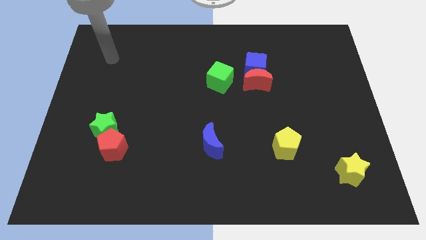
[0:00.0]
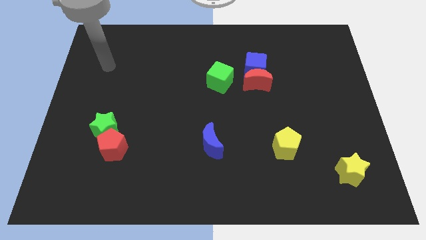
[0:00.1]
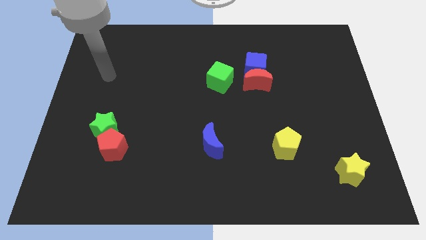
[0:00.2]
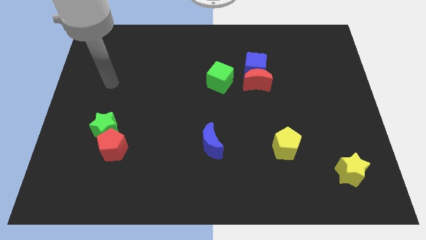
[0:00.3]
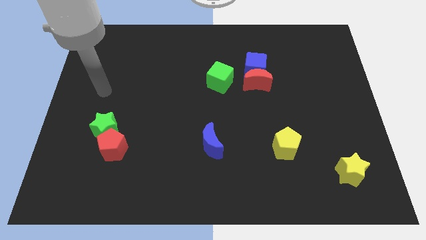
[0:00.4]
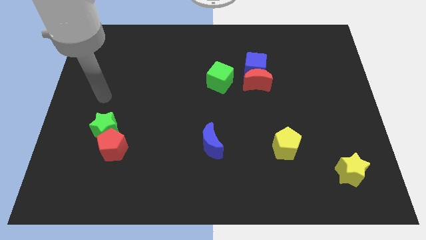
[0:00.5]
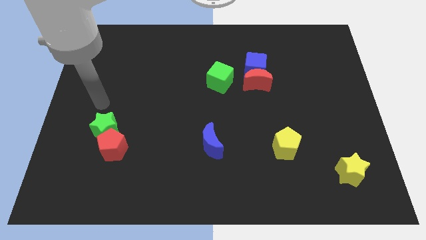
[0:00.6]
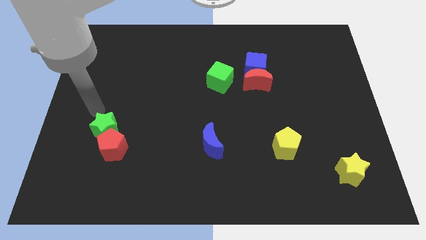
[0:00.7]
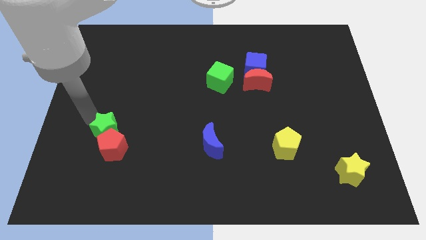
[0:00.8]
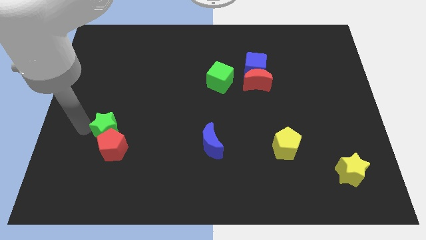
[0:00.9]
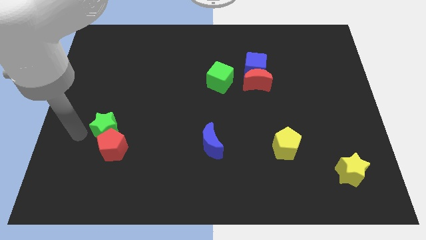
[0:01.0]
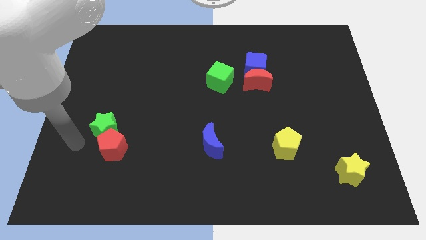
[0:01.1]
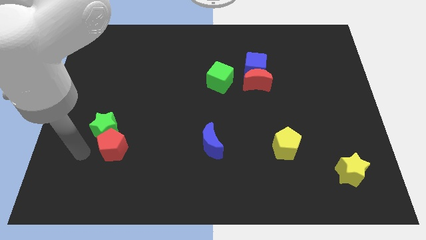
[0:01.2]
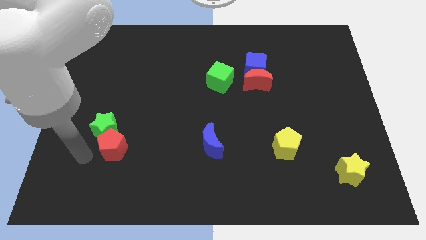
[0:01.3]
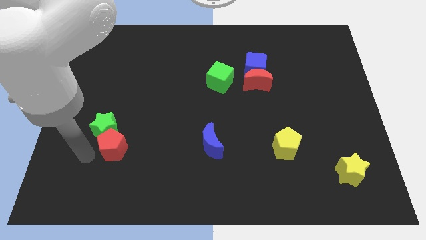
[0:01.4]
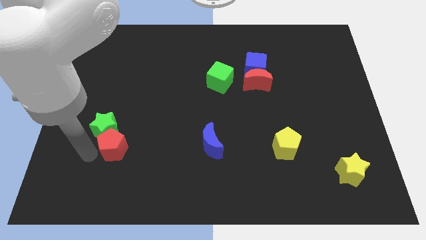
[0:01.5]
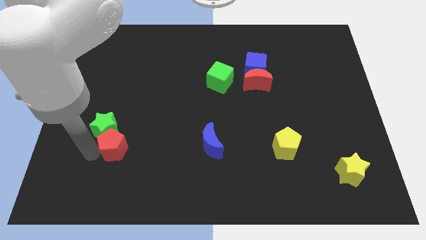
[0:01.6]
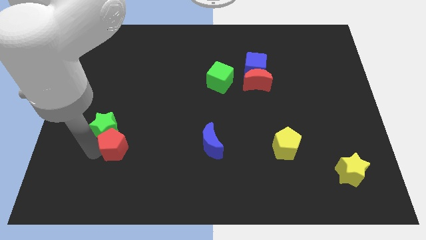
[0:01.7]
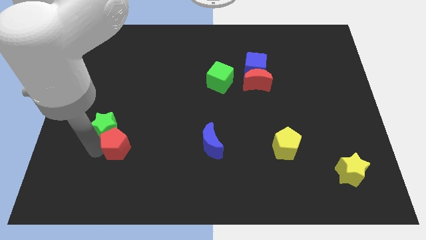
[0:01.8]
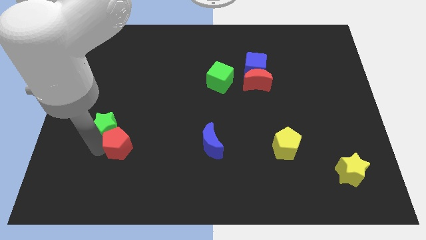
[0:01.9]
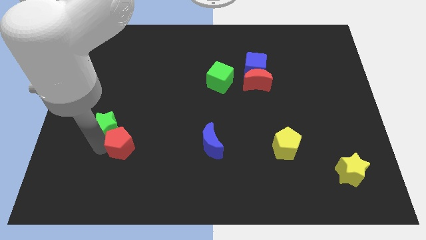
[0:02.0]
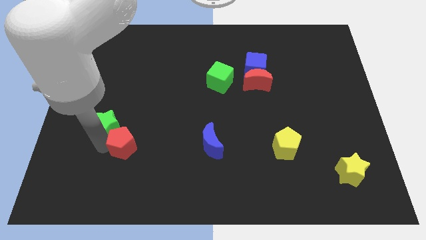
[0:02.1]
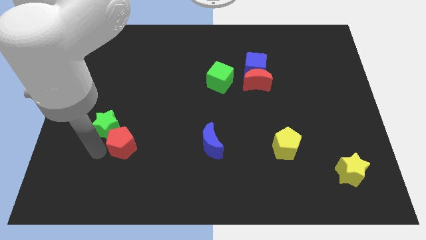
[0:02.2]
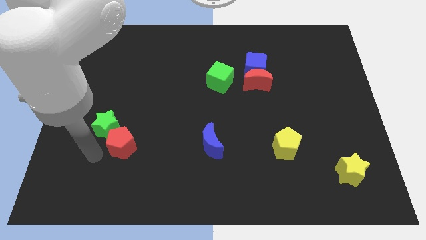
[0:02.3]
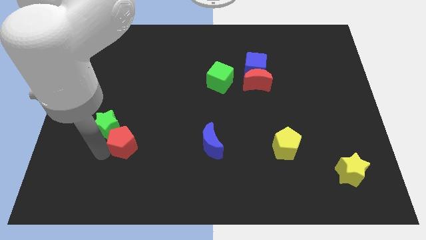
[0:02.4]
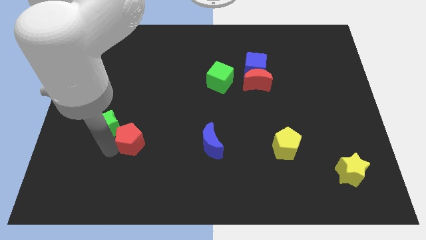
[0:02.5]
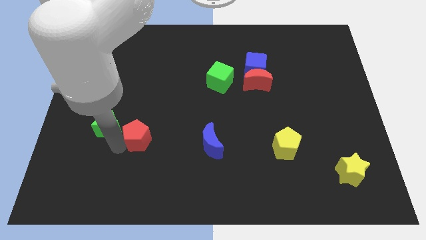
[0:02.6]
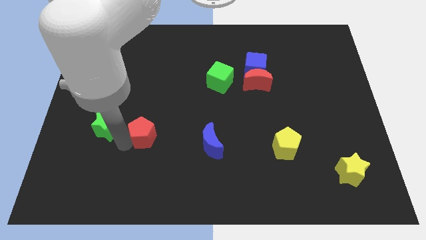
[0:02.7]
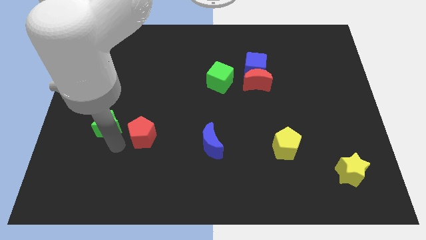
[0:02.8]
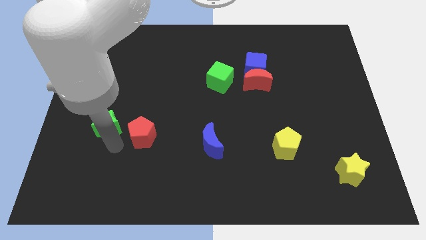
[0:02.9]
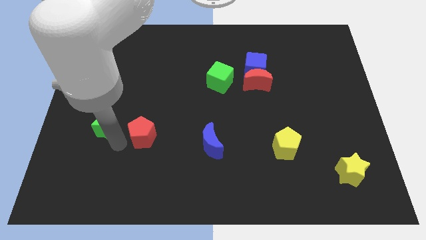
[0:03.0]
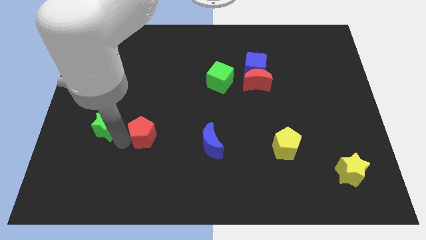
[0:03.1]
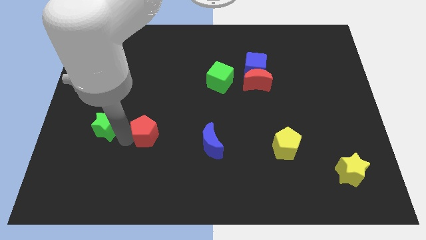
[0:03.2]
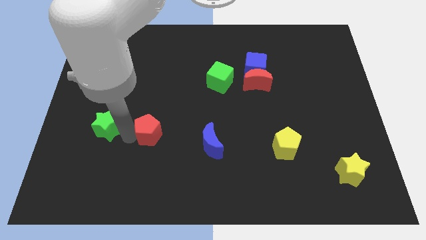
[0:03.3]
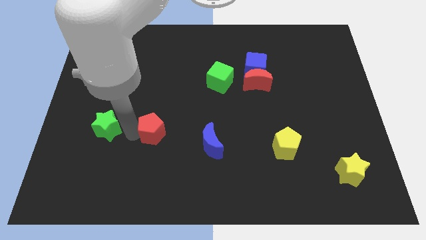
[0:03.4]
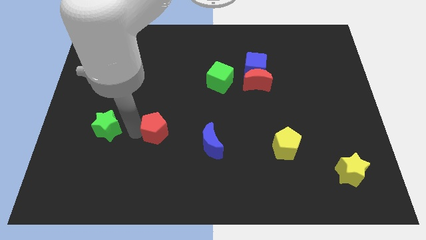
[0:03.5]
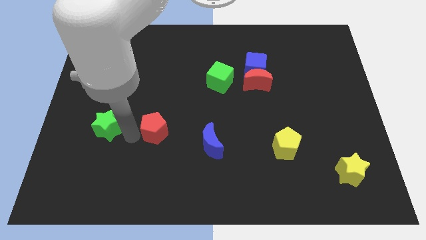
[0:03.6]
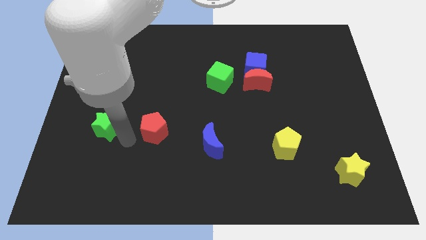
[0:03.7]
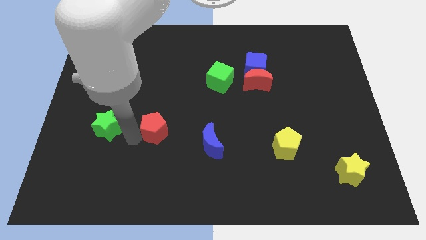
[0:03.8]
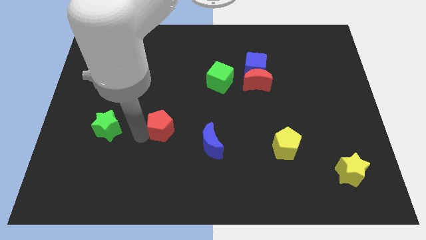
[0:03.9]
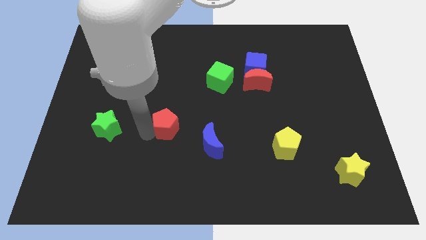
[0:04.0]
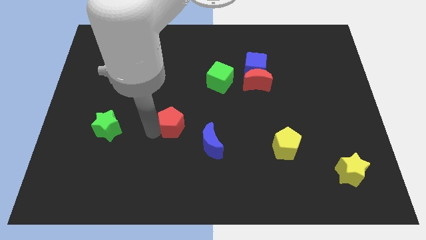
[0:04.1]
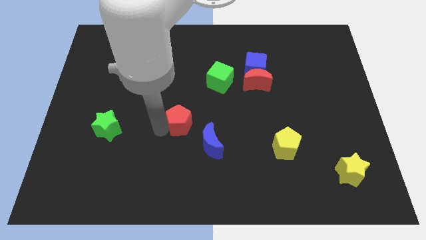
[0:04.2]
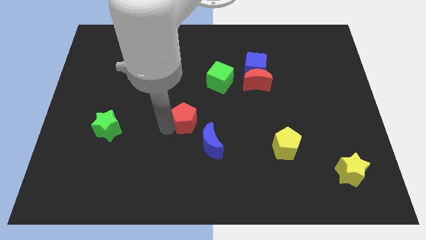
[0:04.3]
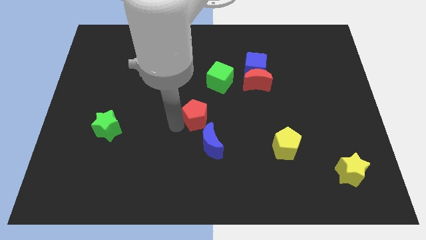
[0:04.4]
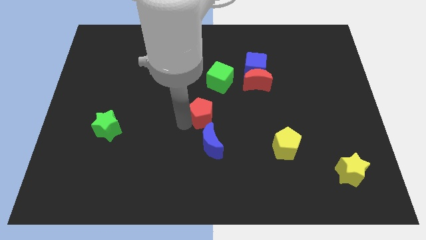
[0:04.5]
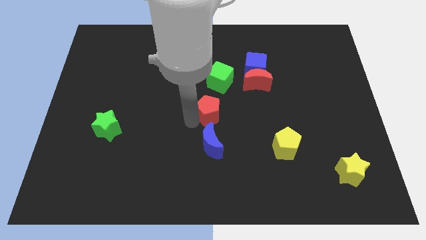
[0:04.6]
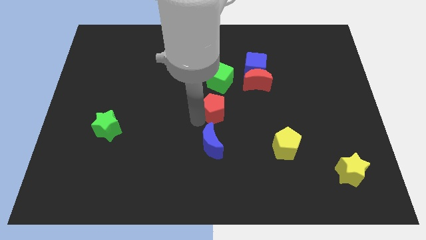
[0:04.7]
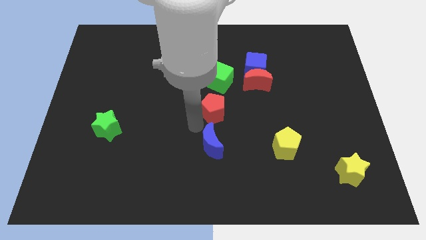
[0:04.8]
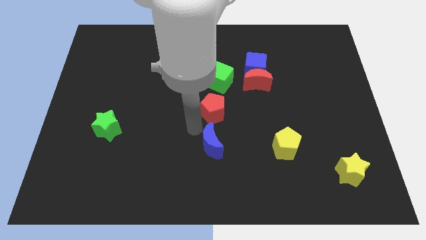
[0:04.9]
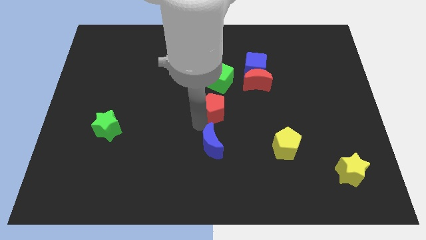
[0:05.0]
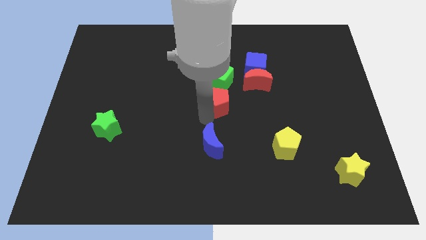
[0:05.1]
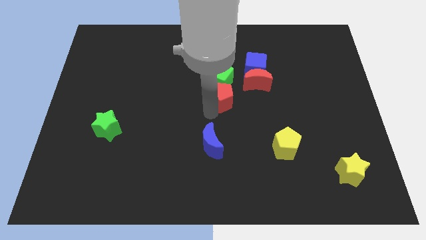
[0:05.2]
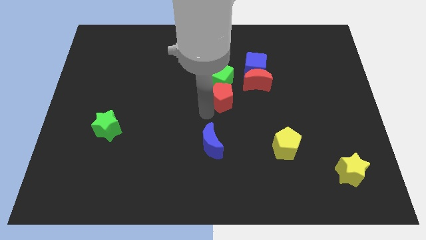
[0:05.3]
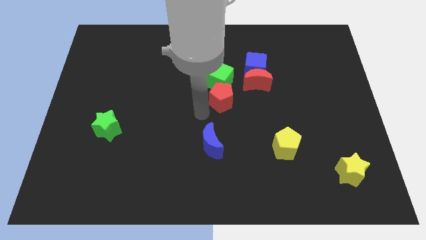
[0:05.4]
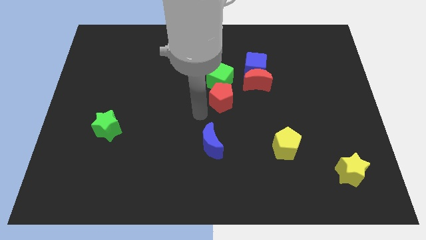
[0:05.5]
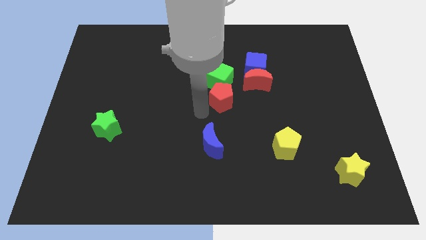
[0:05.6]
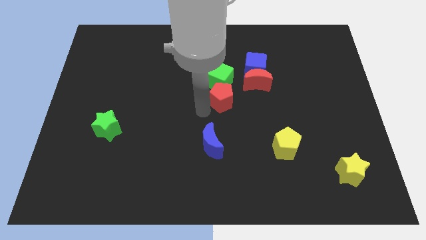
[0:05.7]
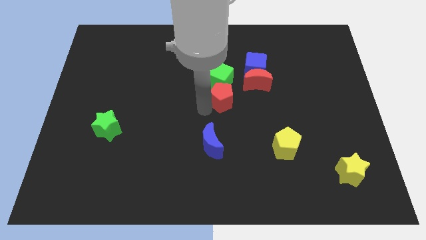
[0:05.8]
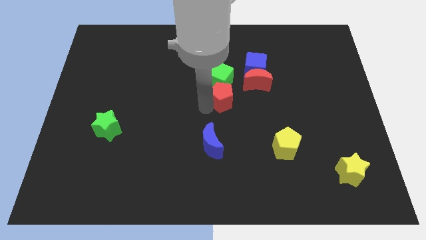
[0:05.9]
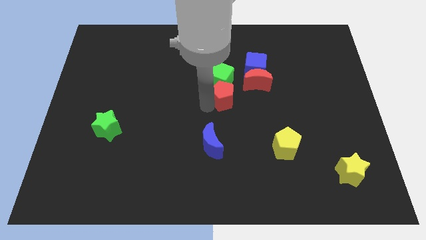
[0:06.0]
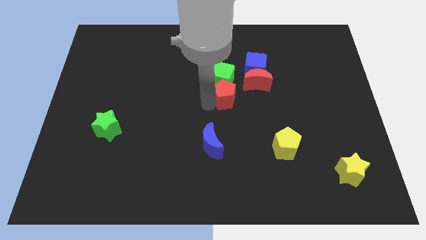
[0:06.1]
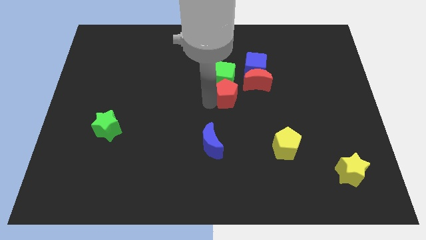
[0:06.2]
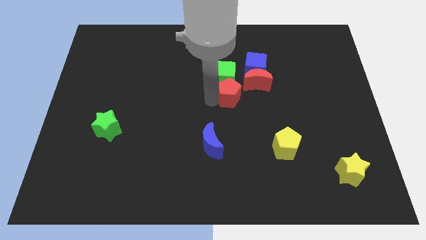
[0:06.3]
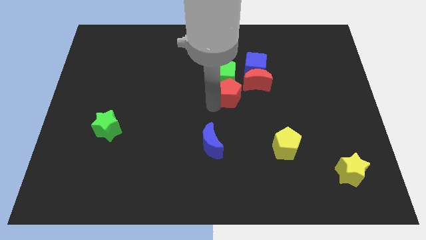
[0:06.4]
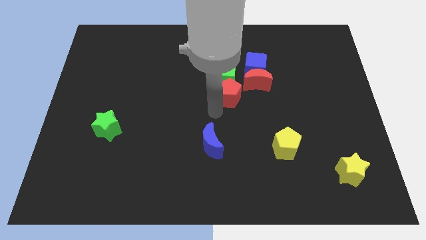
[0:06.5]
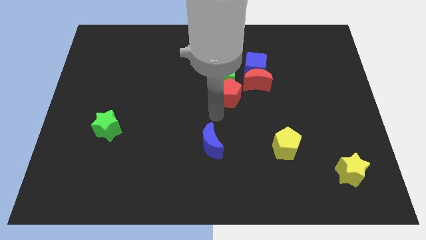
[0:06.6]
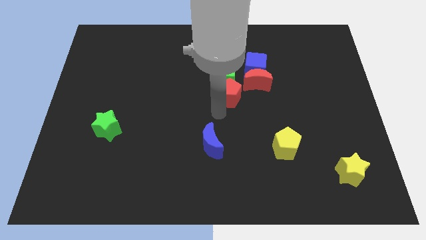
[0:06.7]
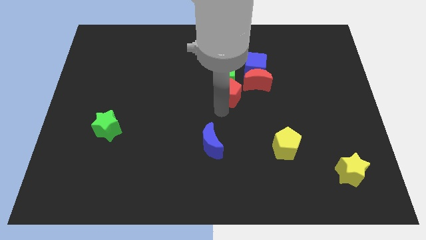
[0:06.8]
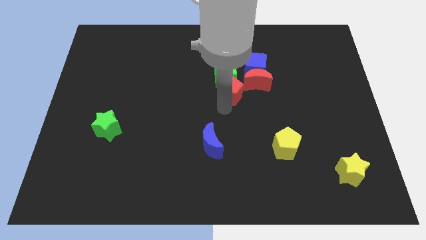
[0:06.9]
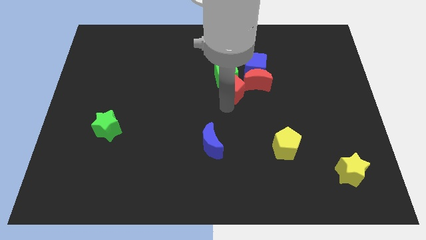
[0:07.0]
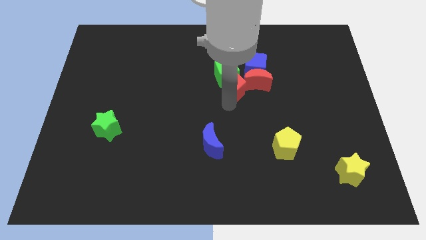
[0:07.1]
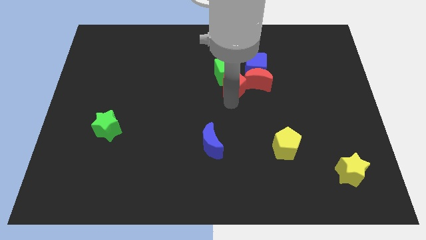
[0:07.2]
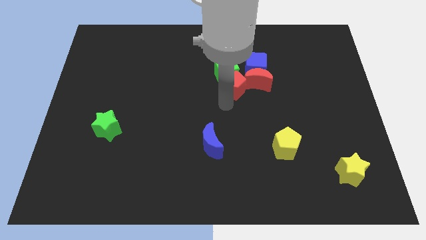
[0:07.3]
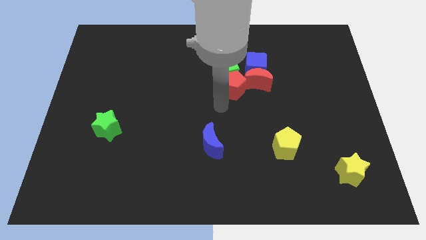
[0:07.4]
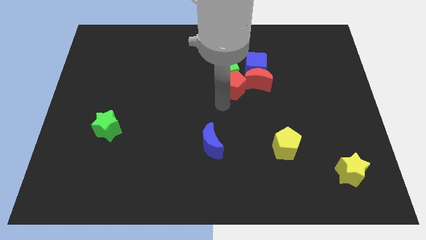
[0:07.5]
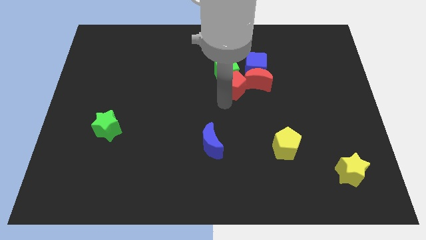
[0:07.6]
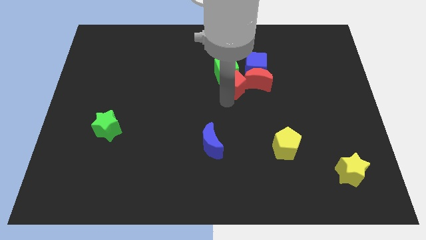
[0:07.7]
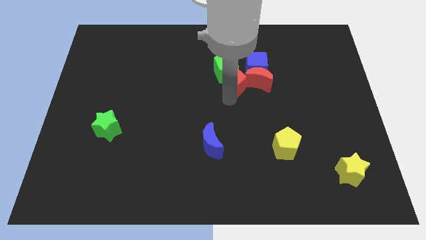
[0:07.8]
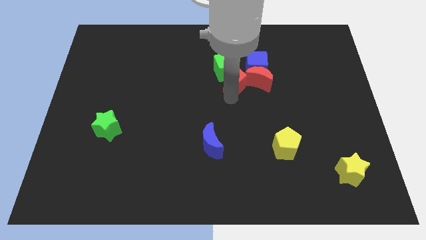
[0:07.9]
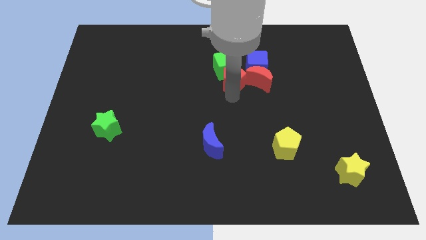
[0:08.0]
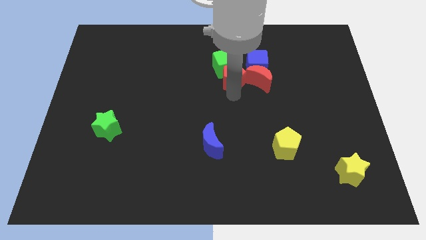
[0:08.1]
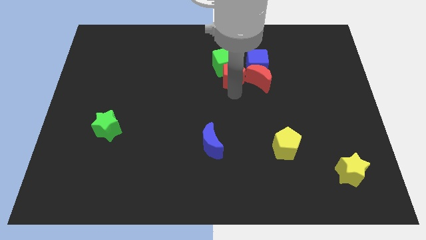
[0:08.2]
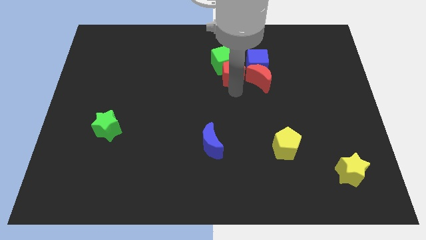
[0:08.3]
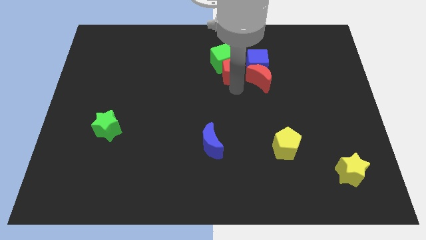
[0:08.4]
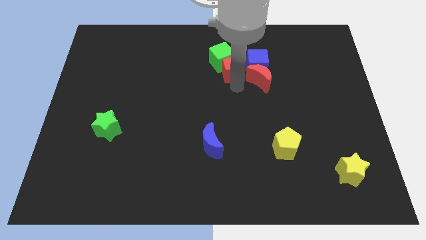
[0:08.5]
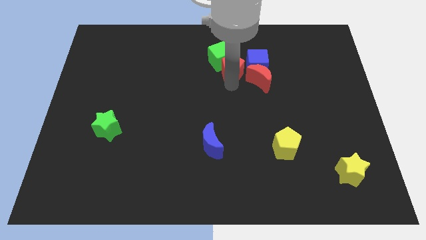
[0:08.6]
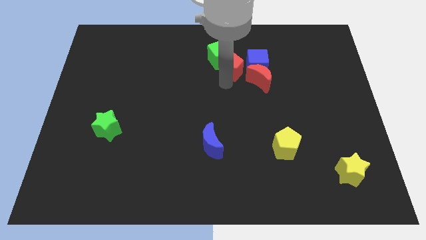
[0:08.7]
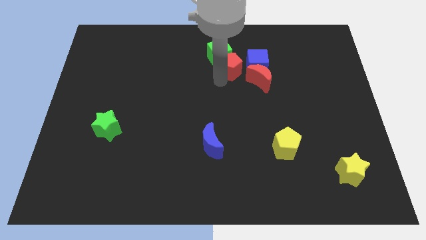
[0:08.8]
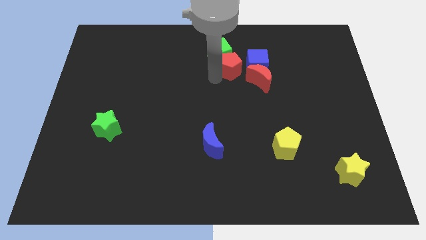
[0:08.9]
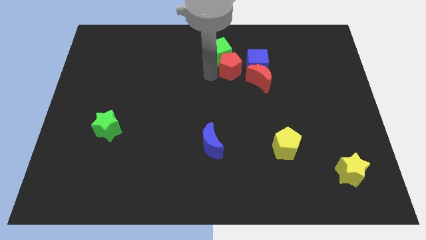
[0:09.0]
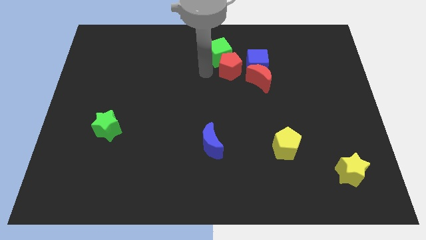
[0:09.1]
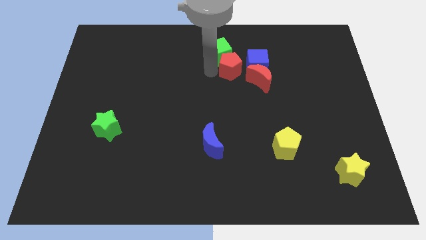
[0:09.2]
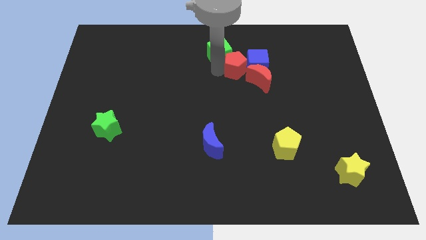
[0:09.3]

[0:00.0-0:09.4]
slide the red pentagon towards the blue cube
